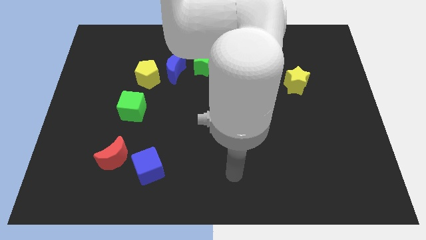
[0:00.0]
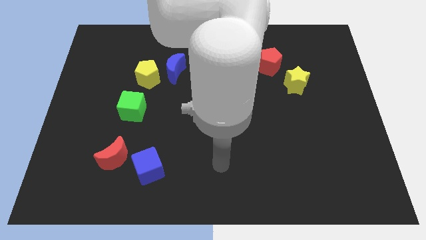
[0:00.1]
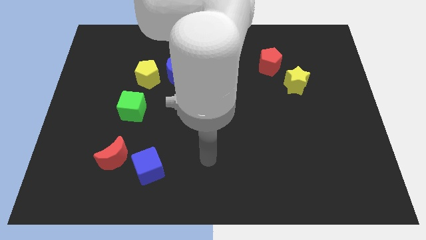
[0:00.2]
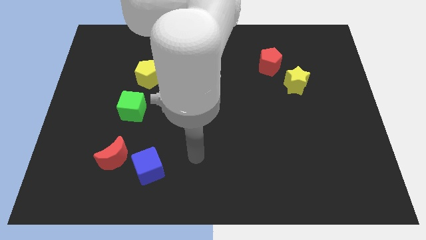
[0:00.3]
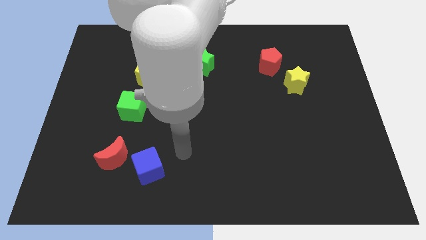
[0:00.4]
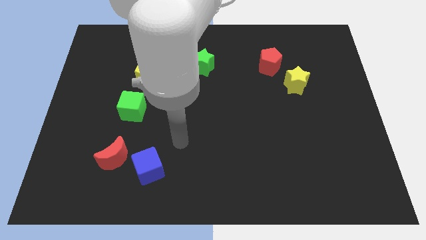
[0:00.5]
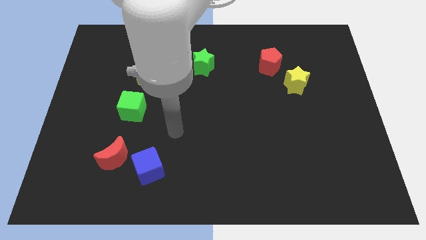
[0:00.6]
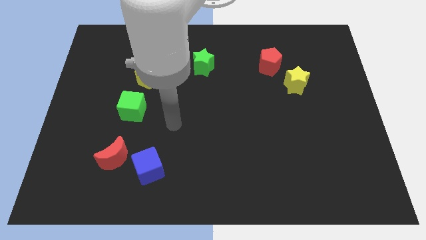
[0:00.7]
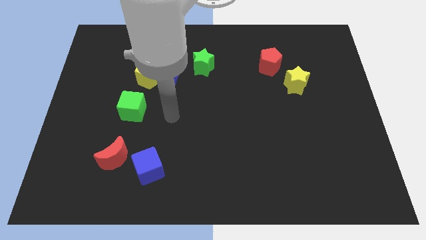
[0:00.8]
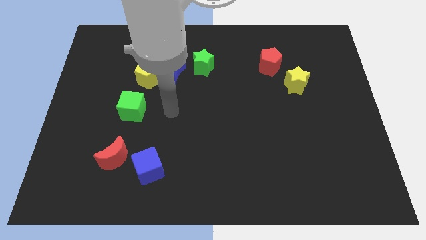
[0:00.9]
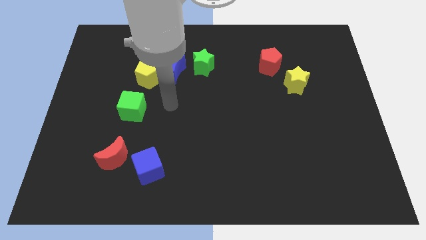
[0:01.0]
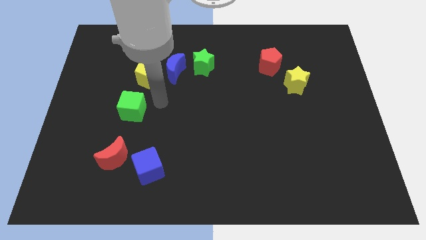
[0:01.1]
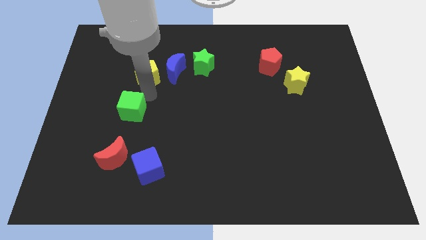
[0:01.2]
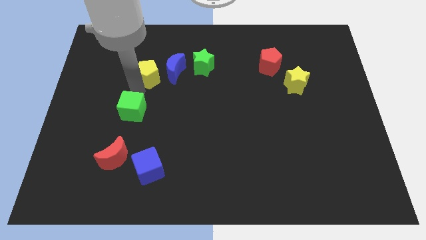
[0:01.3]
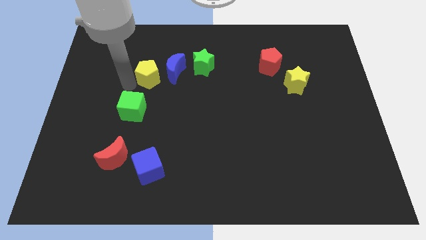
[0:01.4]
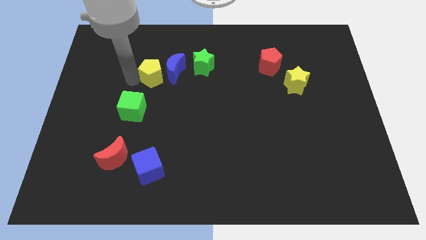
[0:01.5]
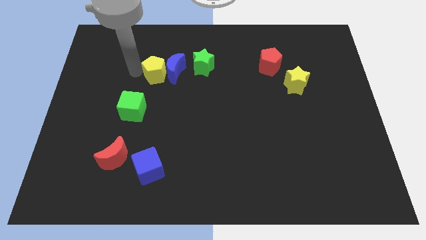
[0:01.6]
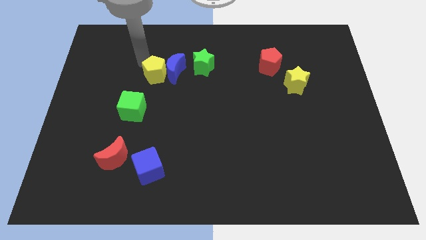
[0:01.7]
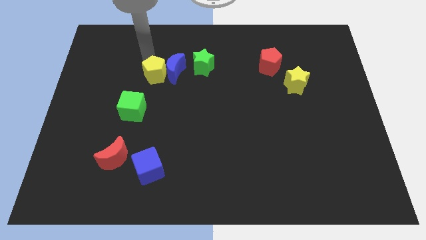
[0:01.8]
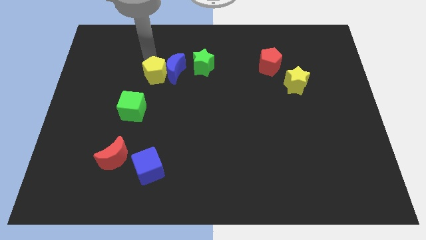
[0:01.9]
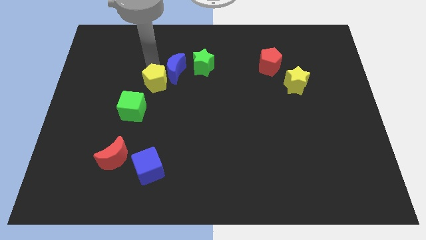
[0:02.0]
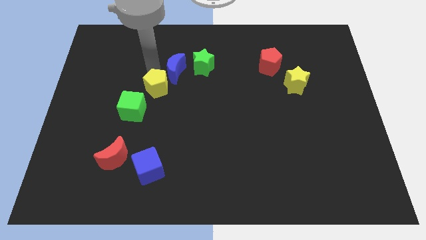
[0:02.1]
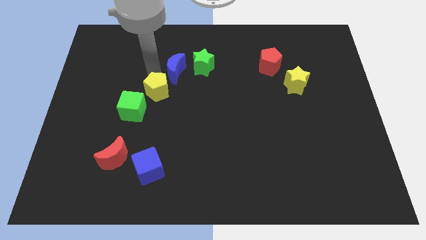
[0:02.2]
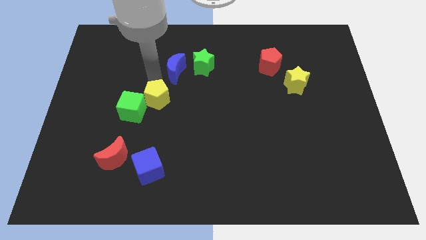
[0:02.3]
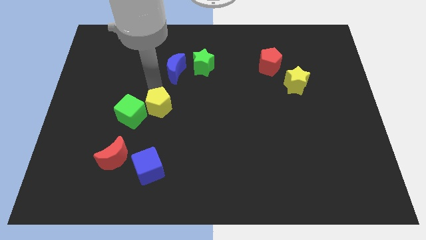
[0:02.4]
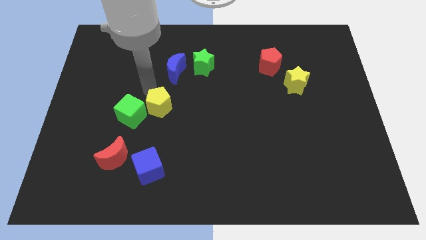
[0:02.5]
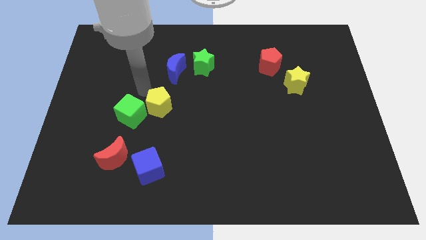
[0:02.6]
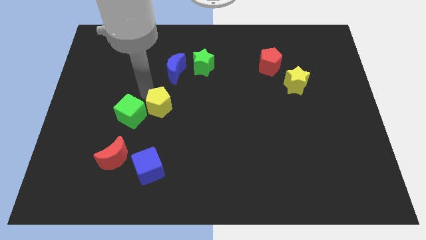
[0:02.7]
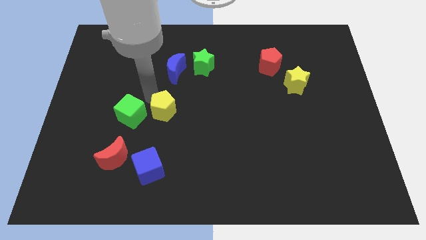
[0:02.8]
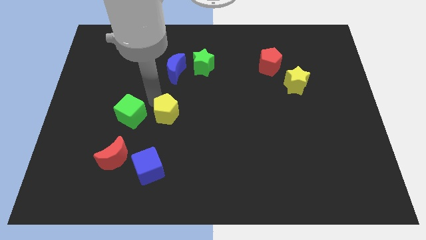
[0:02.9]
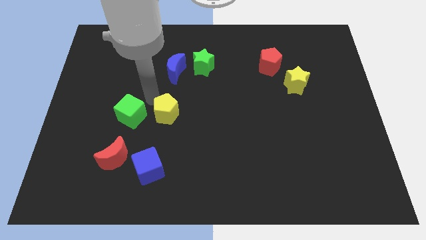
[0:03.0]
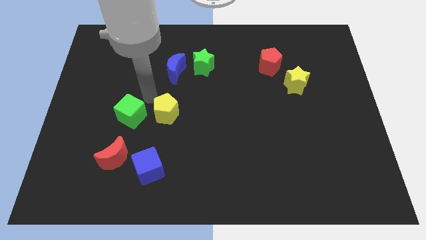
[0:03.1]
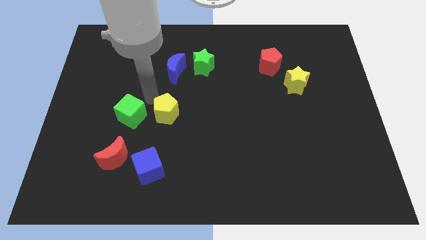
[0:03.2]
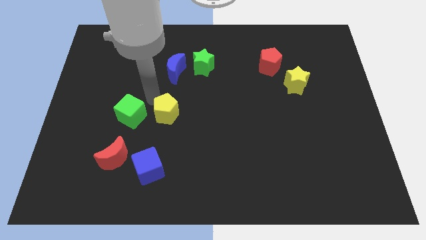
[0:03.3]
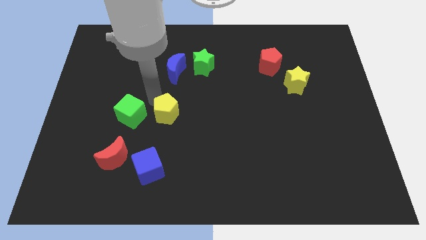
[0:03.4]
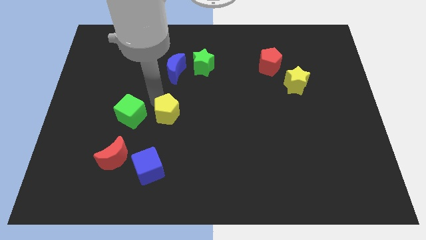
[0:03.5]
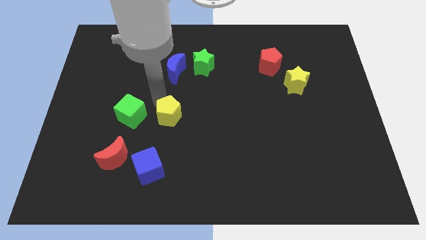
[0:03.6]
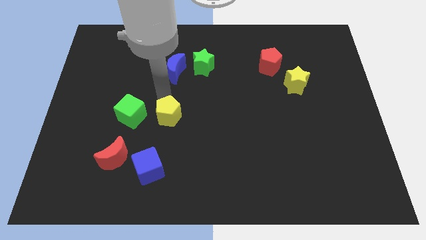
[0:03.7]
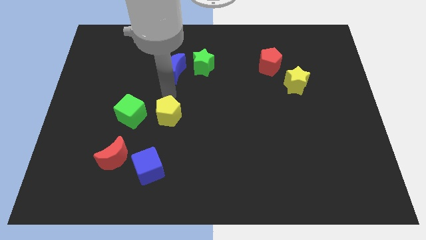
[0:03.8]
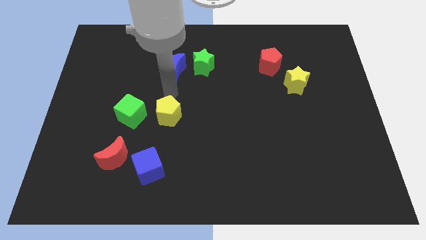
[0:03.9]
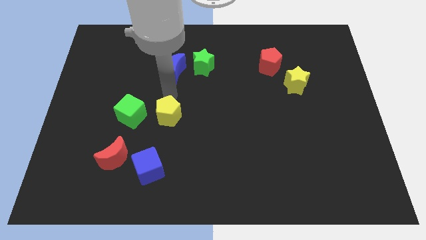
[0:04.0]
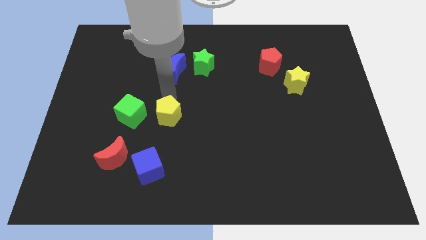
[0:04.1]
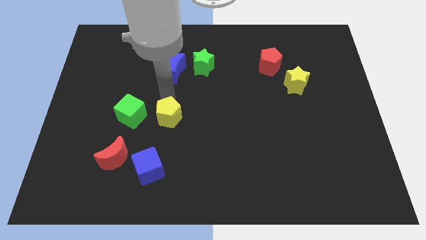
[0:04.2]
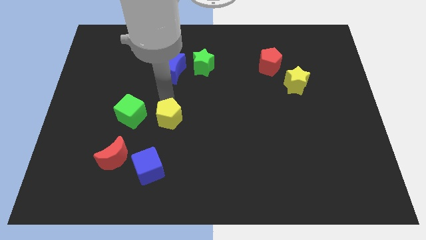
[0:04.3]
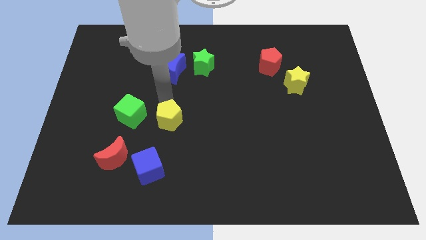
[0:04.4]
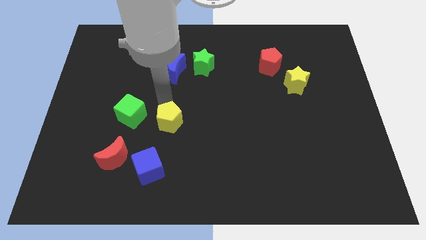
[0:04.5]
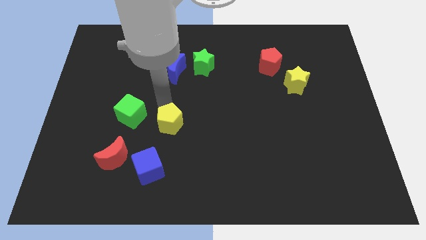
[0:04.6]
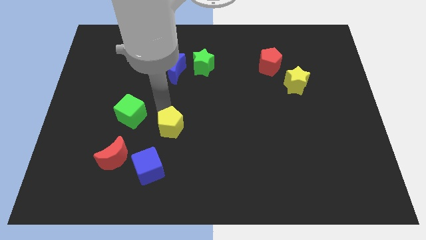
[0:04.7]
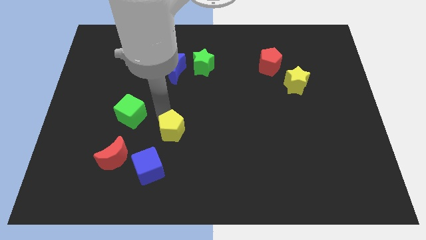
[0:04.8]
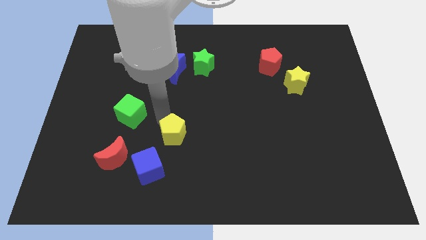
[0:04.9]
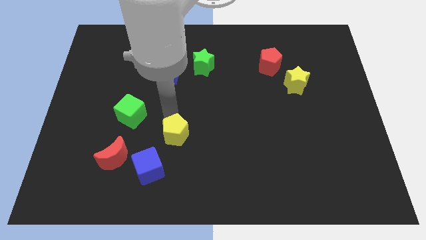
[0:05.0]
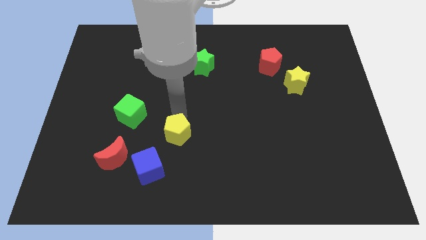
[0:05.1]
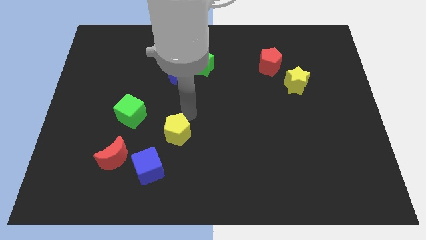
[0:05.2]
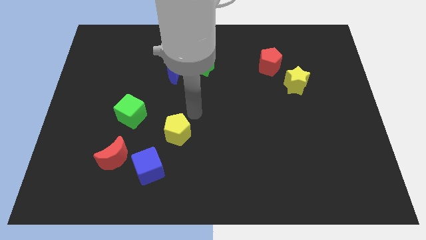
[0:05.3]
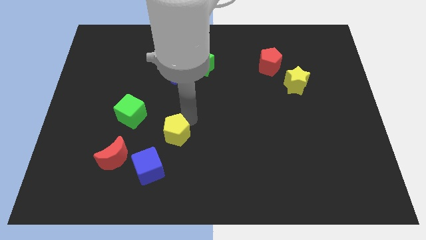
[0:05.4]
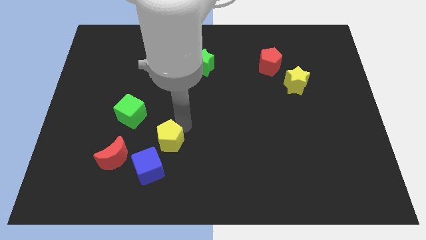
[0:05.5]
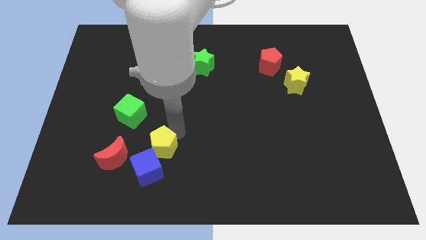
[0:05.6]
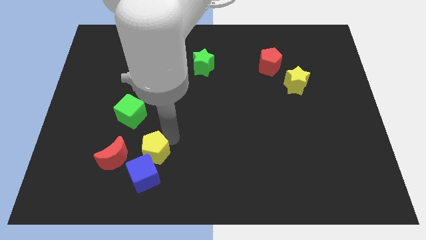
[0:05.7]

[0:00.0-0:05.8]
move the yellow pentagon towards the blue cube

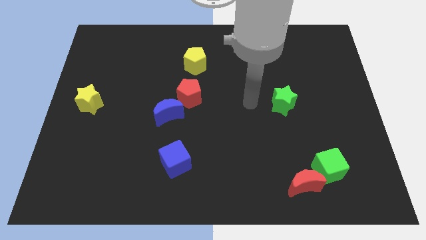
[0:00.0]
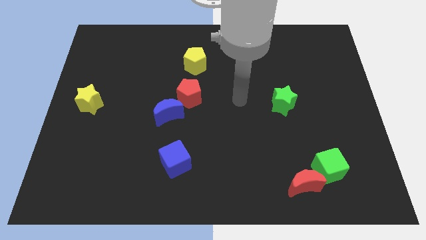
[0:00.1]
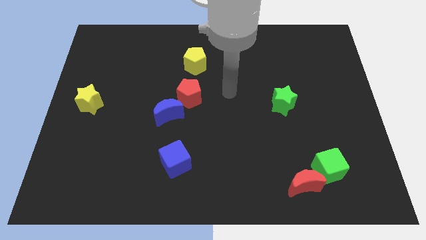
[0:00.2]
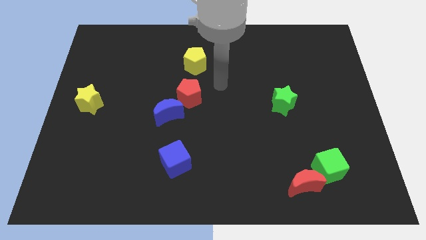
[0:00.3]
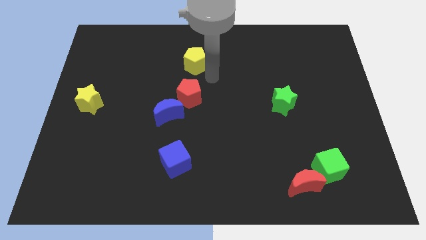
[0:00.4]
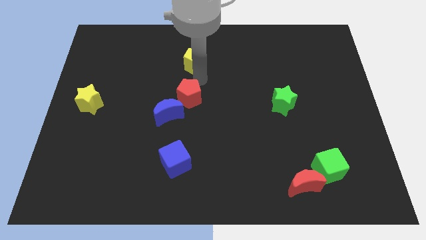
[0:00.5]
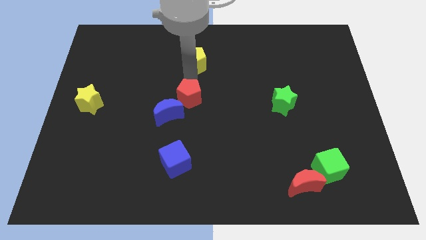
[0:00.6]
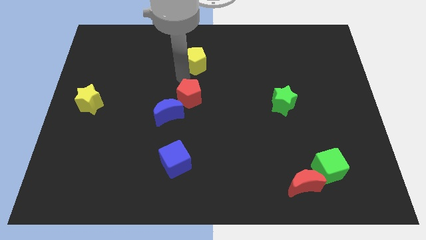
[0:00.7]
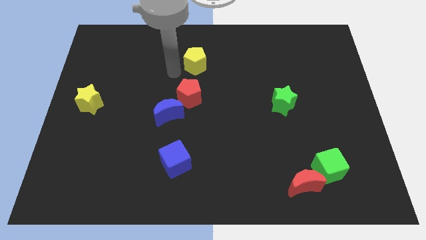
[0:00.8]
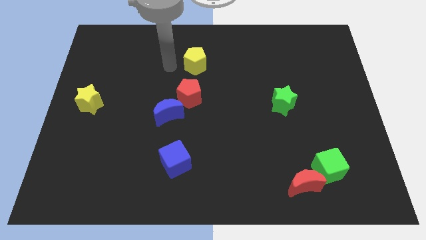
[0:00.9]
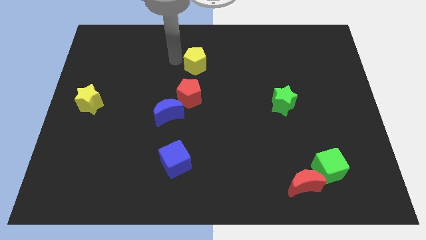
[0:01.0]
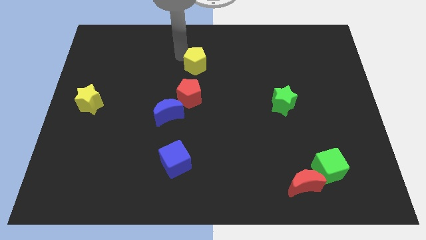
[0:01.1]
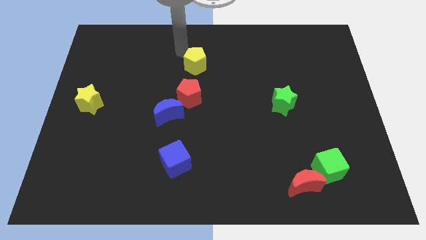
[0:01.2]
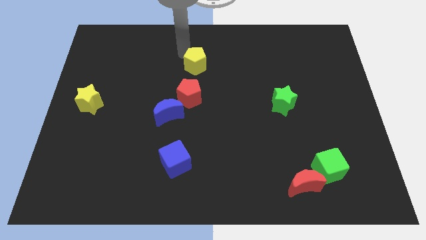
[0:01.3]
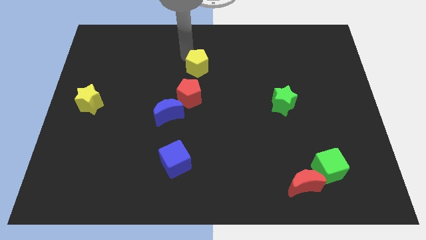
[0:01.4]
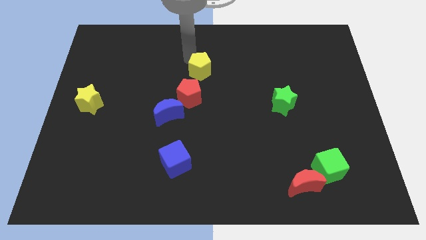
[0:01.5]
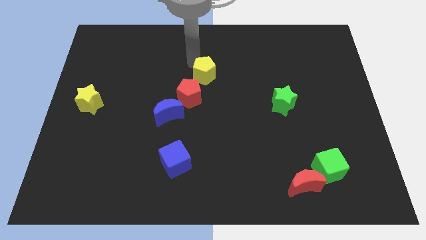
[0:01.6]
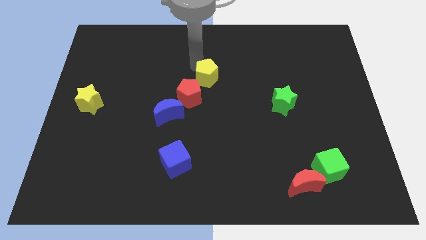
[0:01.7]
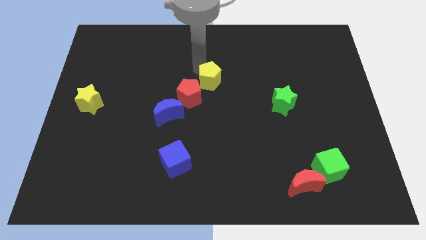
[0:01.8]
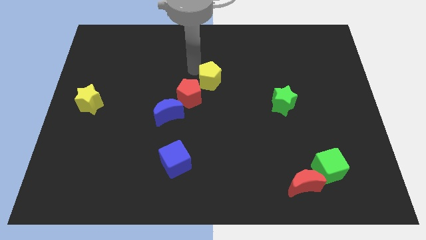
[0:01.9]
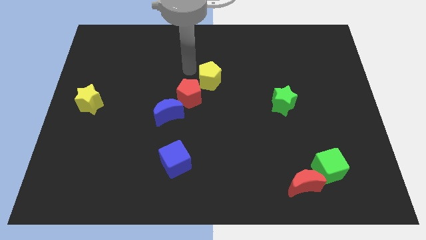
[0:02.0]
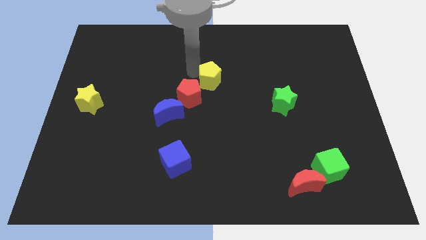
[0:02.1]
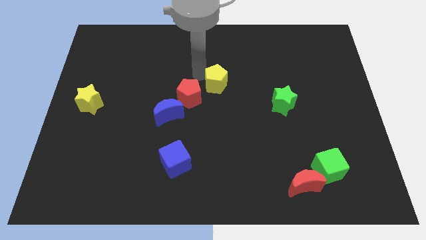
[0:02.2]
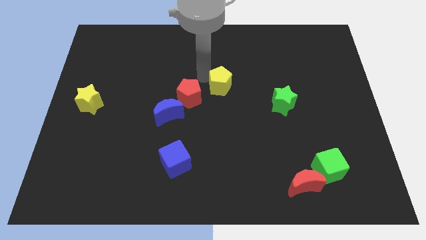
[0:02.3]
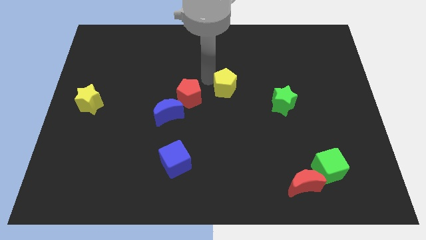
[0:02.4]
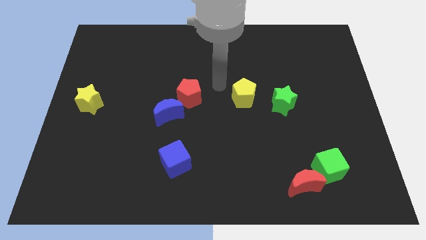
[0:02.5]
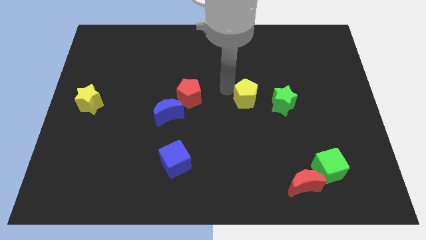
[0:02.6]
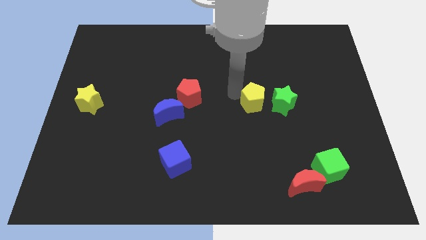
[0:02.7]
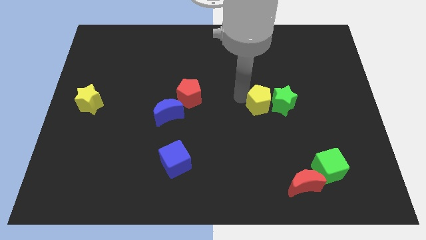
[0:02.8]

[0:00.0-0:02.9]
slide the yellow pentagon next to the green star
